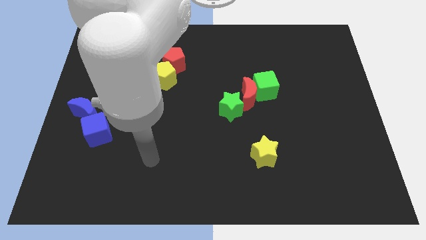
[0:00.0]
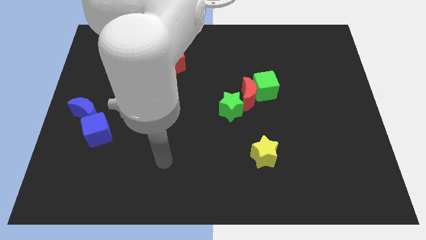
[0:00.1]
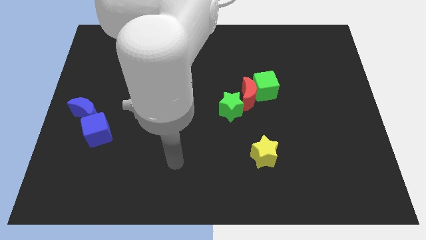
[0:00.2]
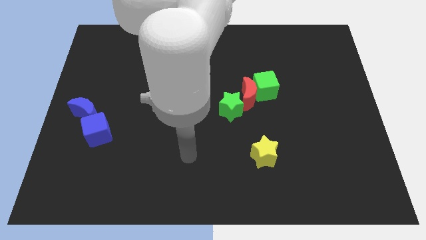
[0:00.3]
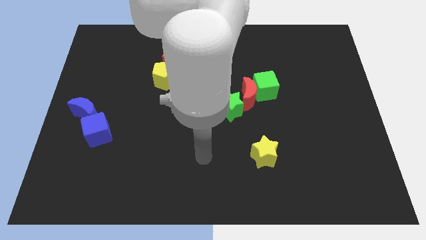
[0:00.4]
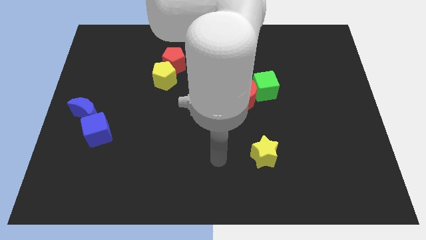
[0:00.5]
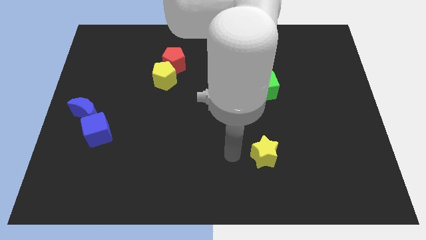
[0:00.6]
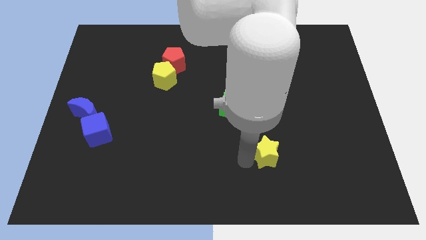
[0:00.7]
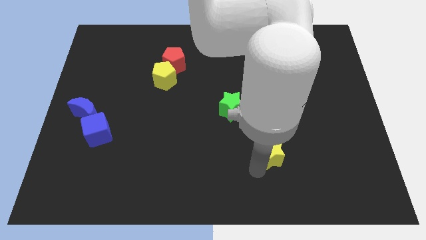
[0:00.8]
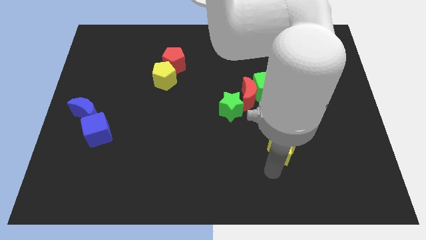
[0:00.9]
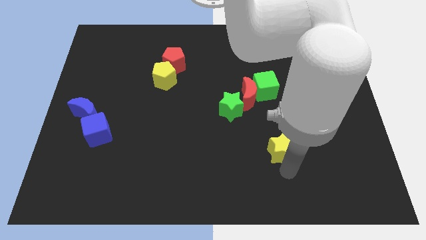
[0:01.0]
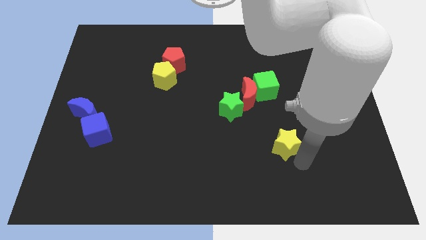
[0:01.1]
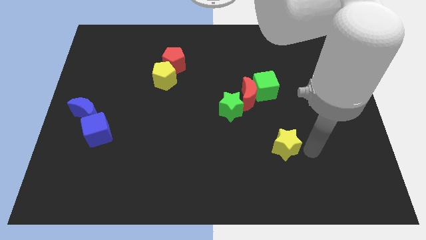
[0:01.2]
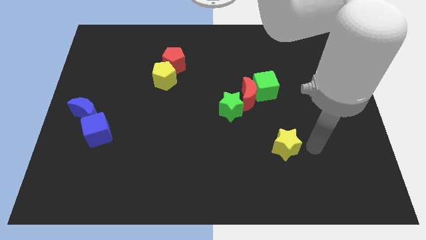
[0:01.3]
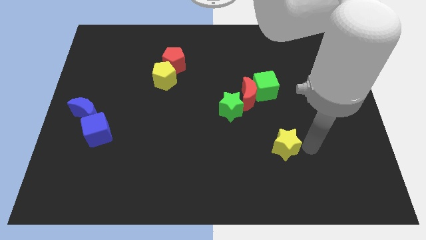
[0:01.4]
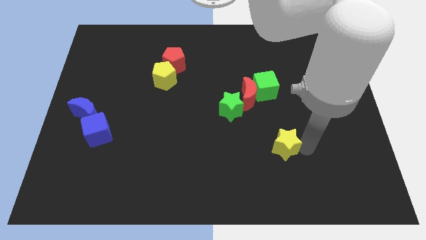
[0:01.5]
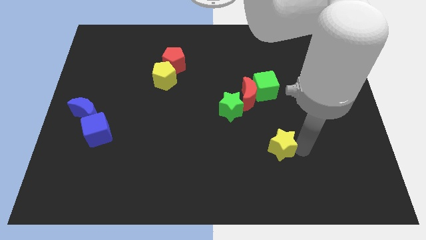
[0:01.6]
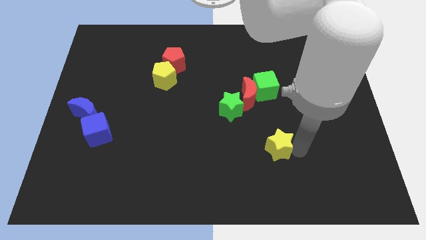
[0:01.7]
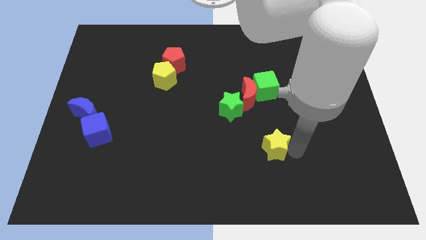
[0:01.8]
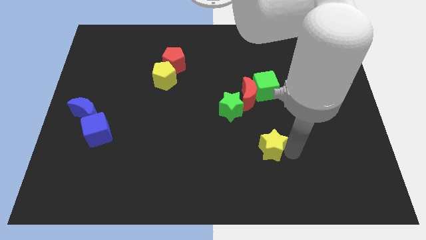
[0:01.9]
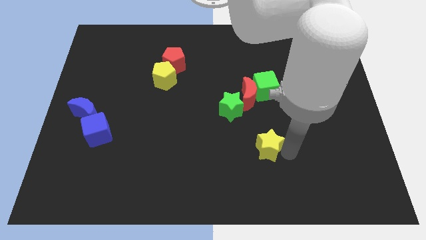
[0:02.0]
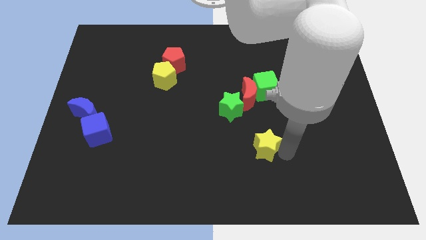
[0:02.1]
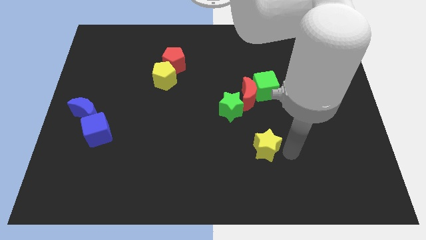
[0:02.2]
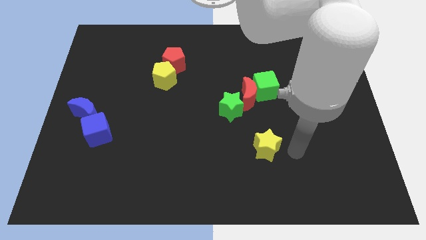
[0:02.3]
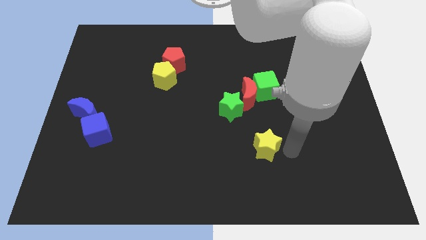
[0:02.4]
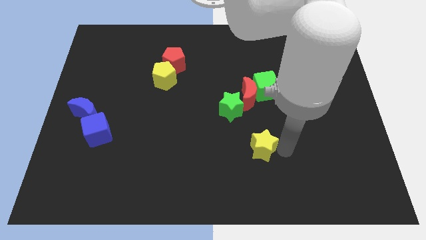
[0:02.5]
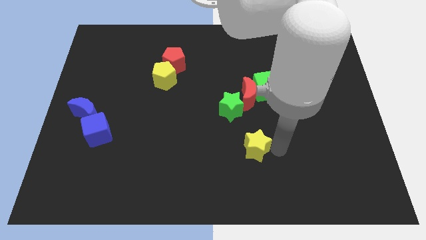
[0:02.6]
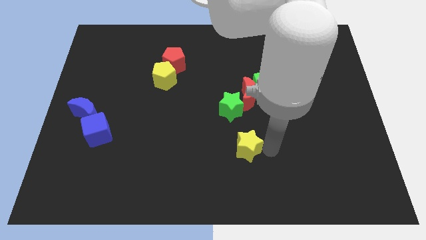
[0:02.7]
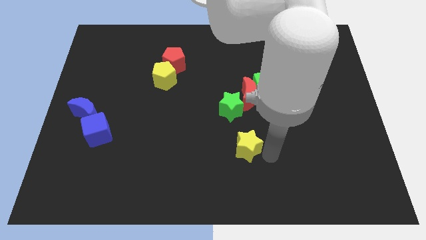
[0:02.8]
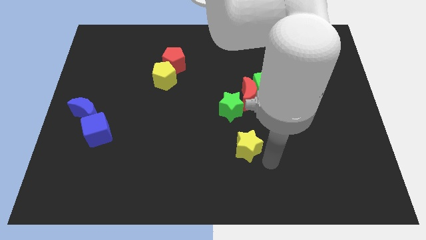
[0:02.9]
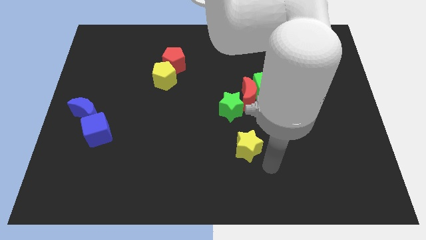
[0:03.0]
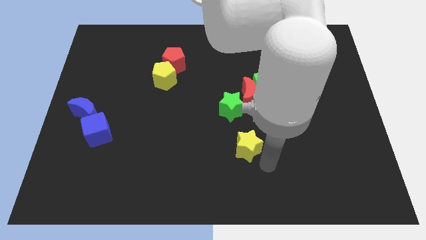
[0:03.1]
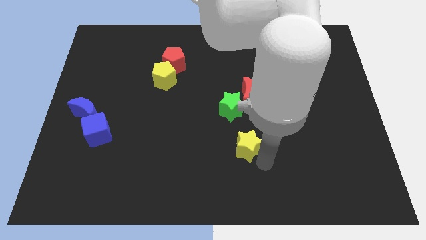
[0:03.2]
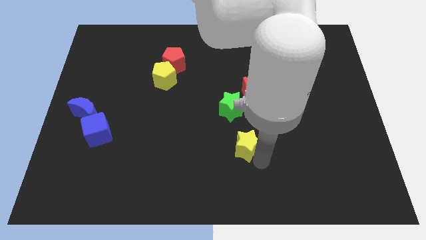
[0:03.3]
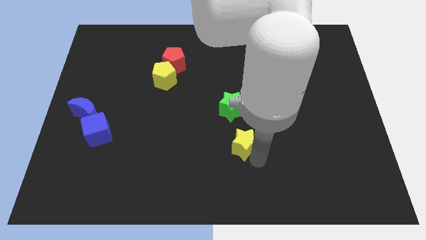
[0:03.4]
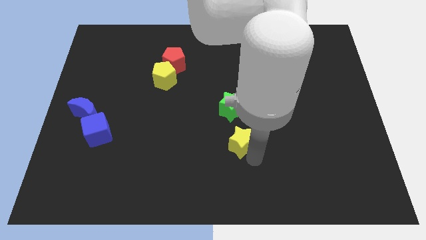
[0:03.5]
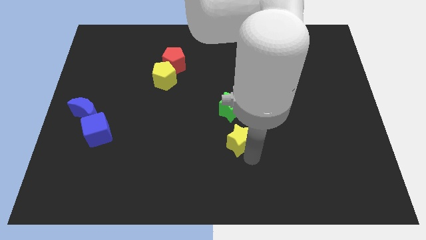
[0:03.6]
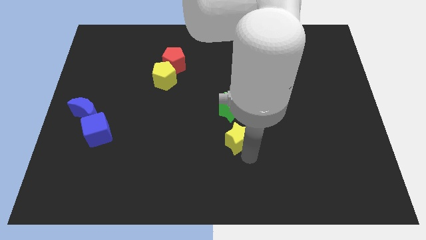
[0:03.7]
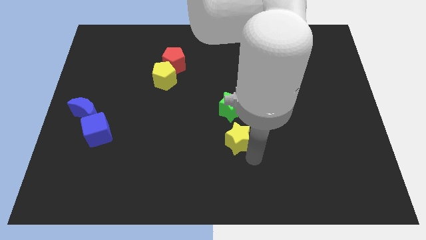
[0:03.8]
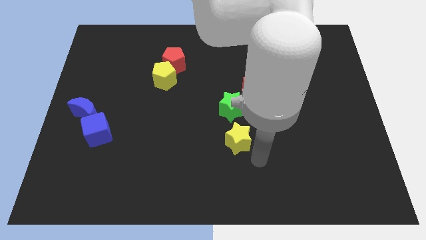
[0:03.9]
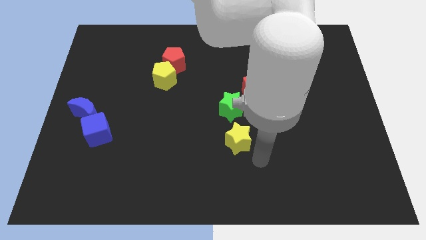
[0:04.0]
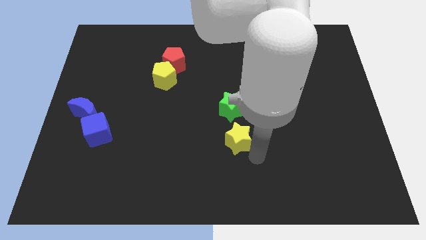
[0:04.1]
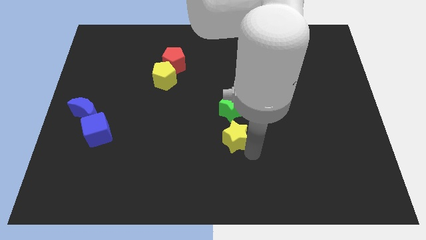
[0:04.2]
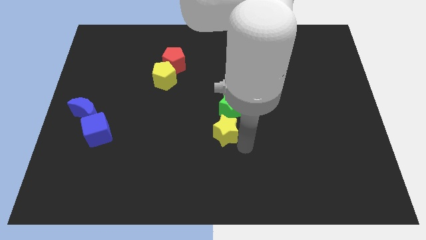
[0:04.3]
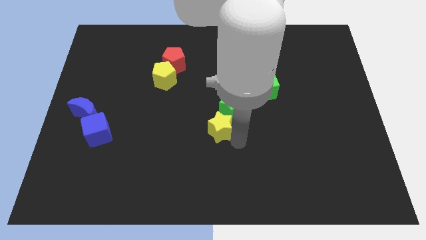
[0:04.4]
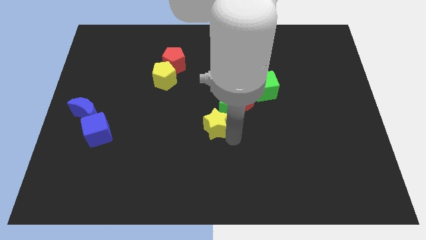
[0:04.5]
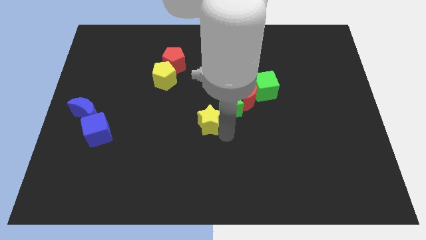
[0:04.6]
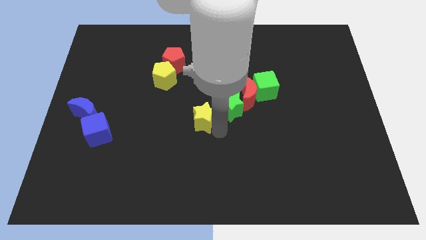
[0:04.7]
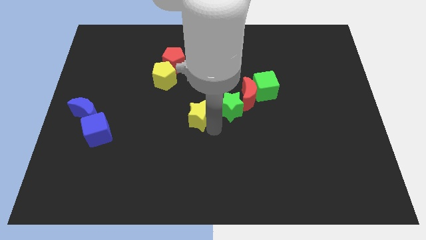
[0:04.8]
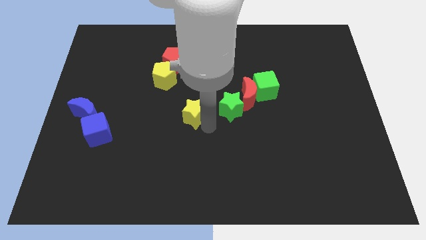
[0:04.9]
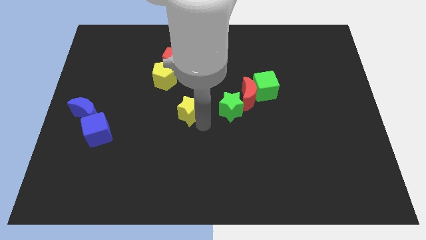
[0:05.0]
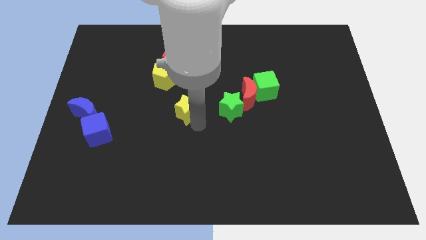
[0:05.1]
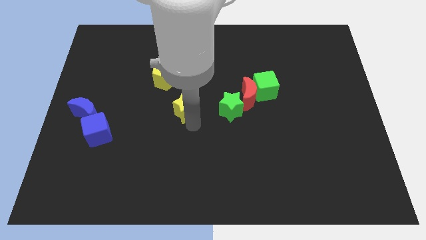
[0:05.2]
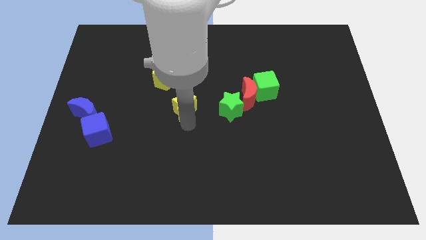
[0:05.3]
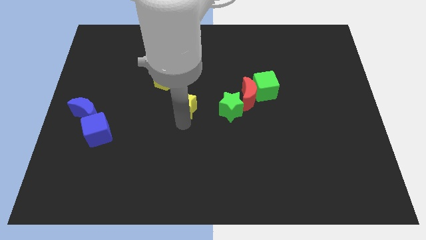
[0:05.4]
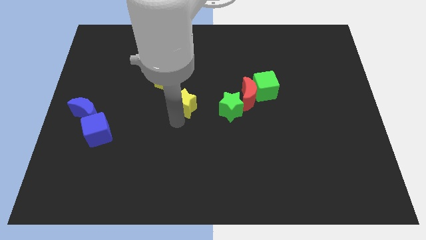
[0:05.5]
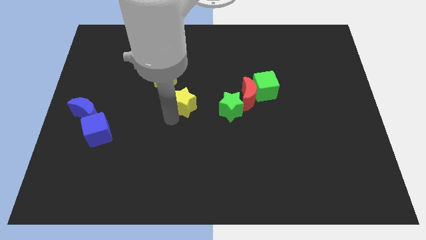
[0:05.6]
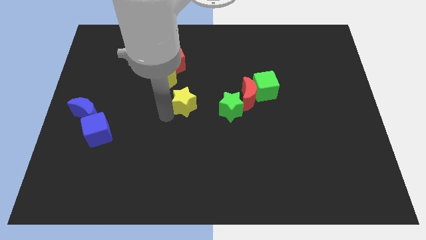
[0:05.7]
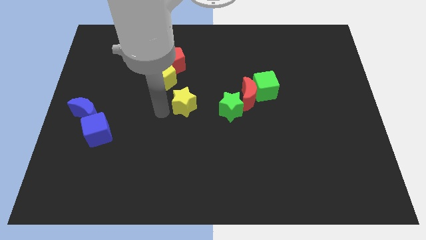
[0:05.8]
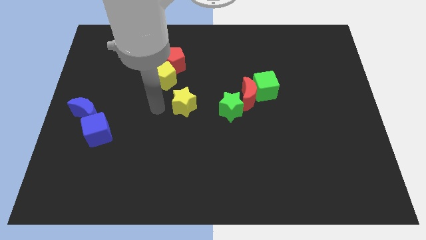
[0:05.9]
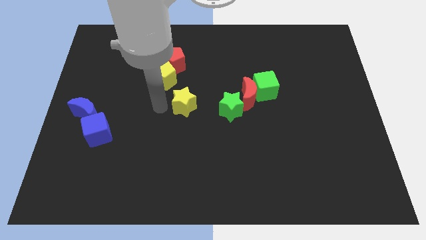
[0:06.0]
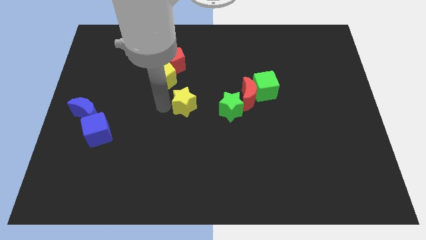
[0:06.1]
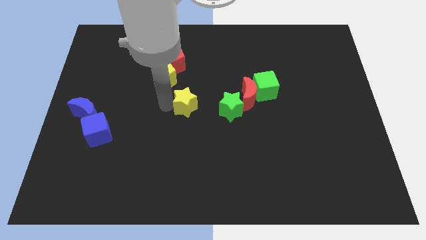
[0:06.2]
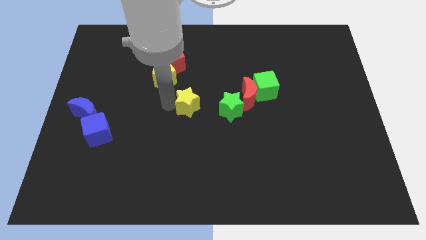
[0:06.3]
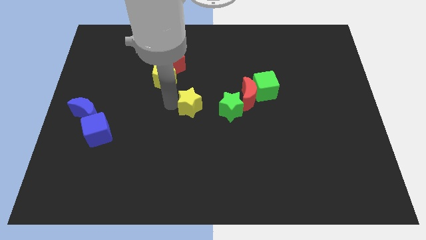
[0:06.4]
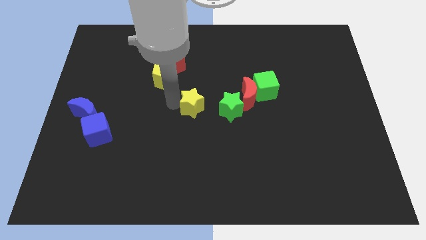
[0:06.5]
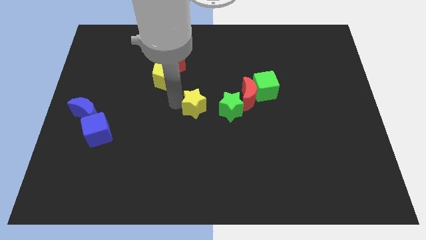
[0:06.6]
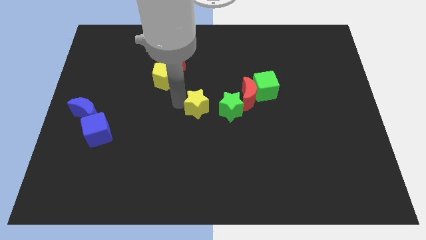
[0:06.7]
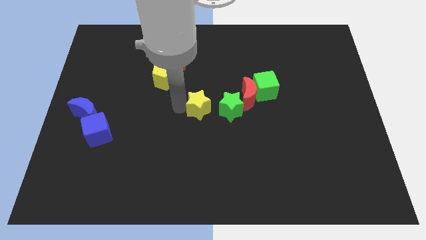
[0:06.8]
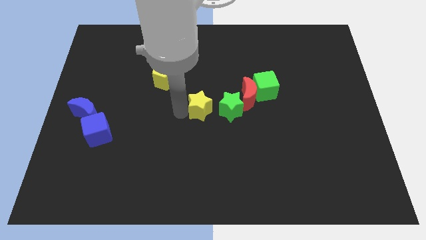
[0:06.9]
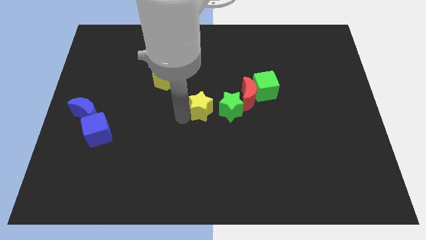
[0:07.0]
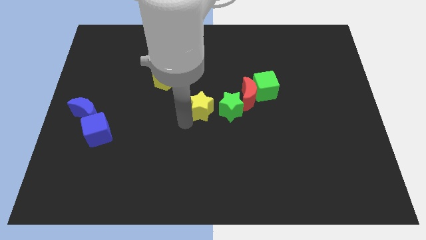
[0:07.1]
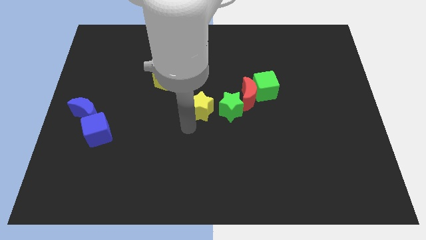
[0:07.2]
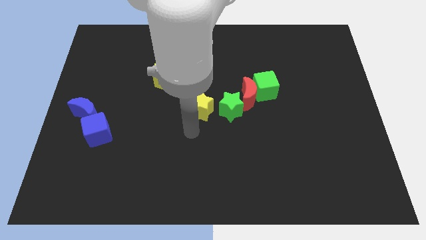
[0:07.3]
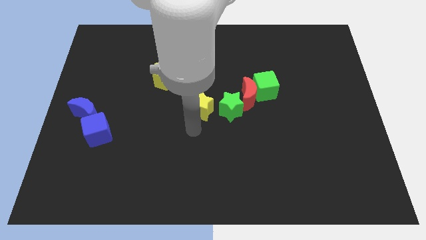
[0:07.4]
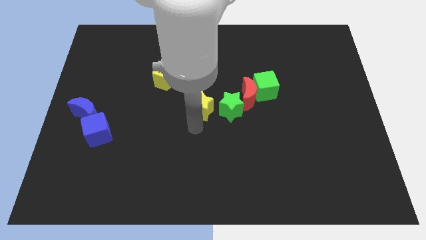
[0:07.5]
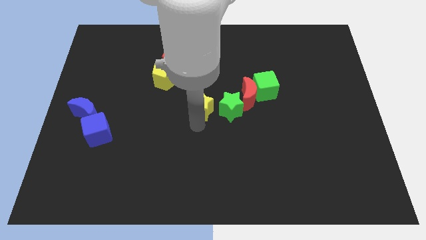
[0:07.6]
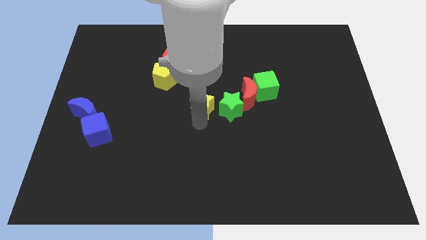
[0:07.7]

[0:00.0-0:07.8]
push the yellow star diagonally up and to the left of the green star
